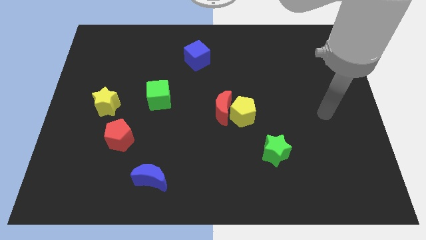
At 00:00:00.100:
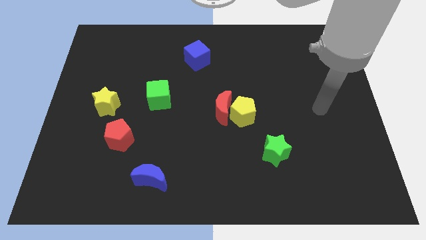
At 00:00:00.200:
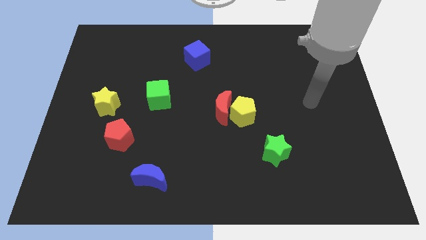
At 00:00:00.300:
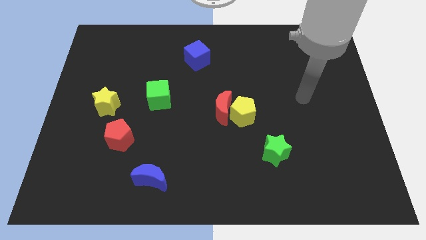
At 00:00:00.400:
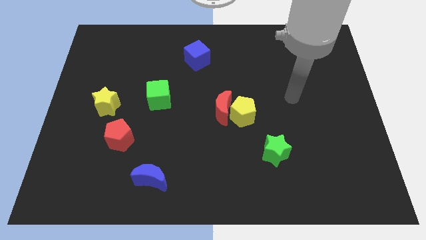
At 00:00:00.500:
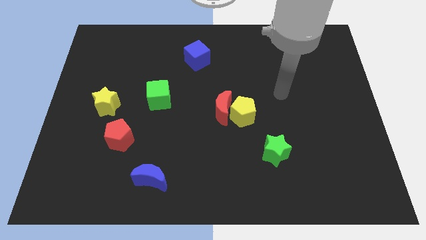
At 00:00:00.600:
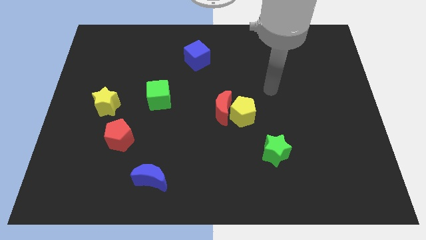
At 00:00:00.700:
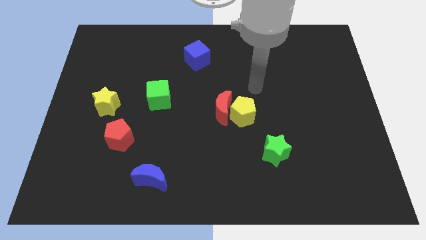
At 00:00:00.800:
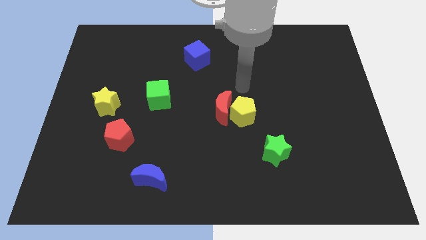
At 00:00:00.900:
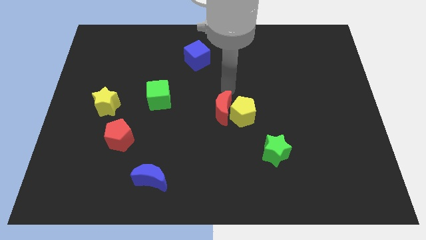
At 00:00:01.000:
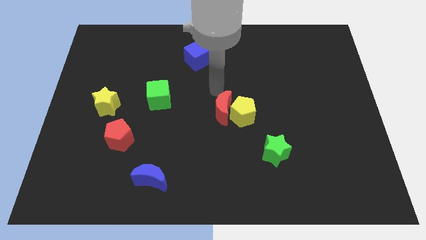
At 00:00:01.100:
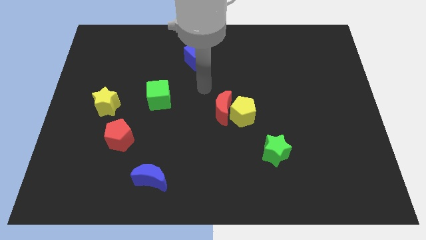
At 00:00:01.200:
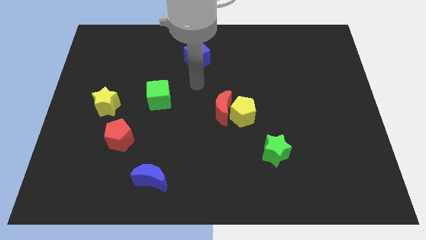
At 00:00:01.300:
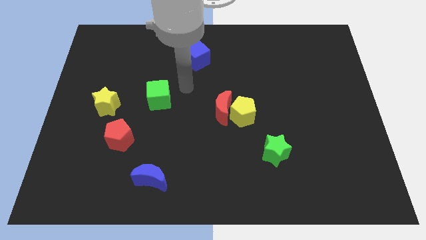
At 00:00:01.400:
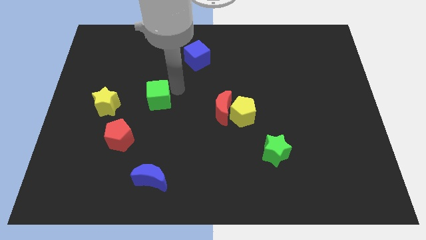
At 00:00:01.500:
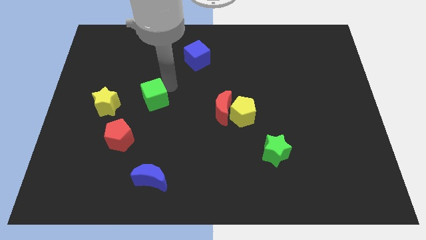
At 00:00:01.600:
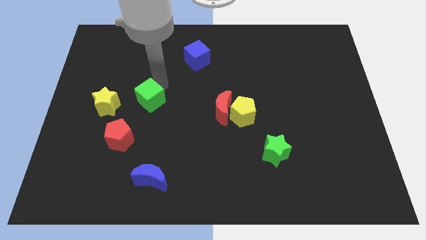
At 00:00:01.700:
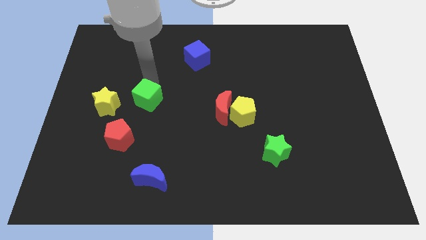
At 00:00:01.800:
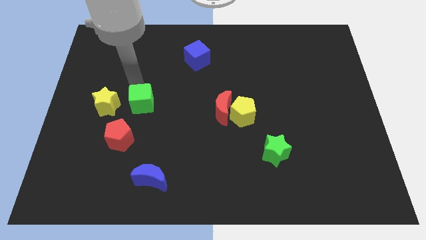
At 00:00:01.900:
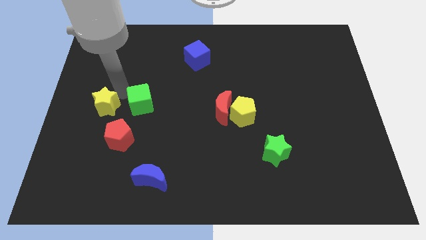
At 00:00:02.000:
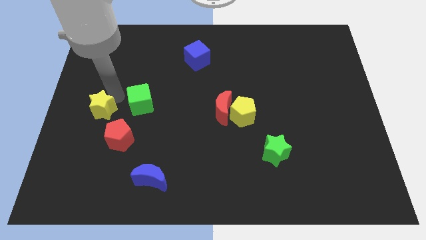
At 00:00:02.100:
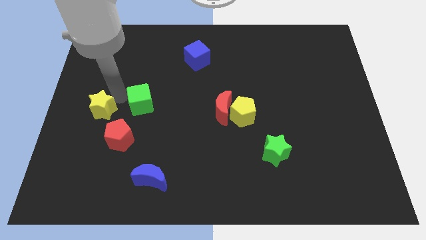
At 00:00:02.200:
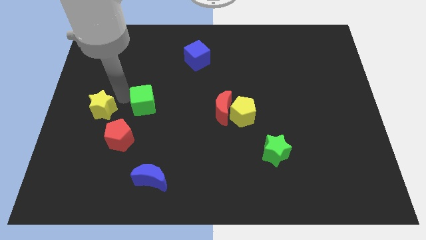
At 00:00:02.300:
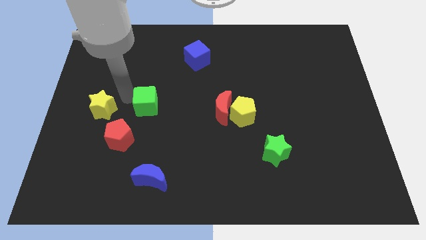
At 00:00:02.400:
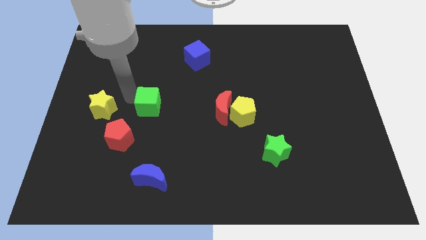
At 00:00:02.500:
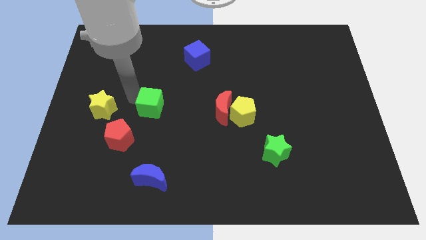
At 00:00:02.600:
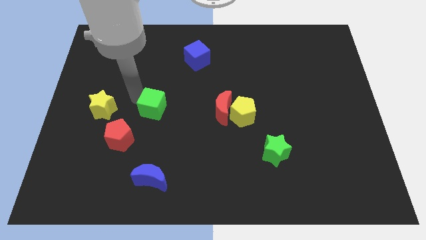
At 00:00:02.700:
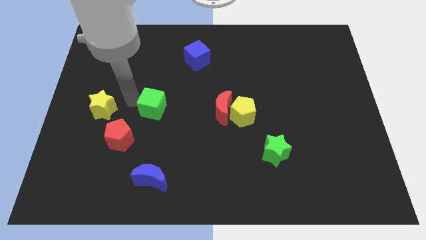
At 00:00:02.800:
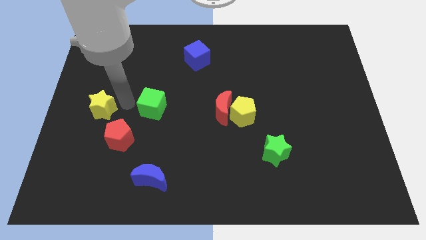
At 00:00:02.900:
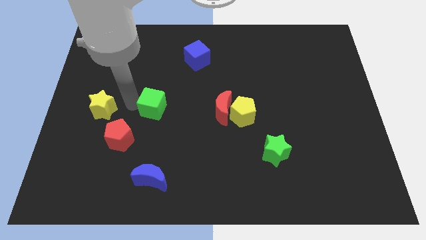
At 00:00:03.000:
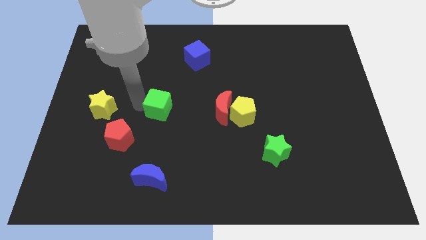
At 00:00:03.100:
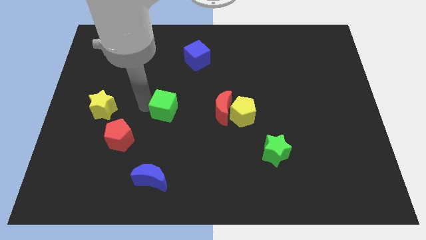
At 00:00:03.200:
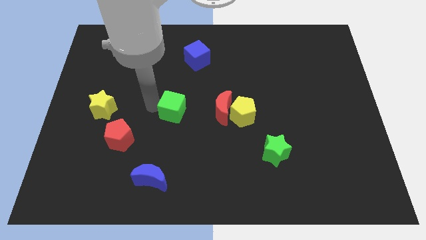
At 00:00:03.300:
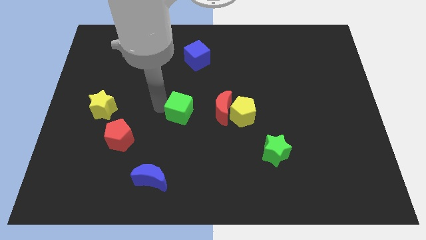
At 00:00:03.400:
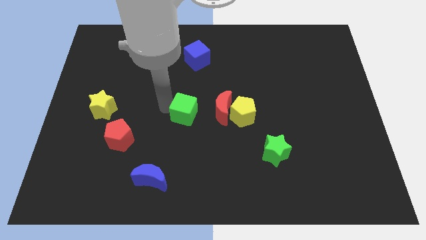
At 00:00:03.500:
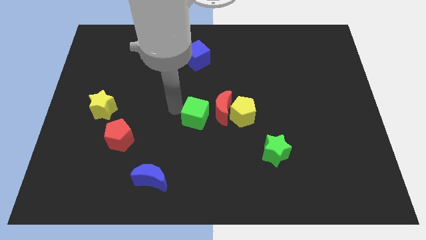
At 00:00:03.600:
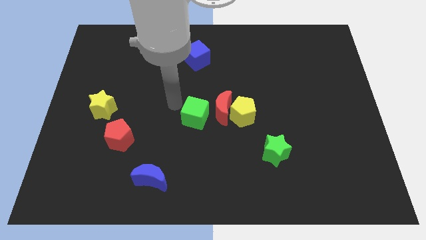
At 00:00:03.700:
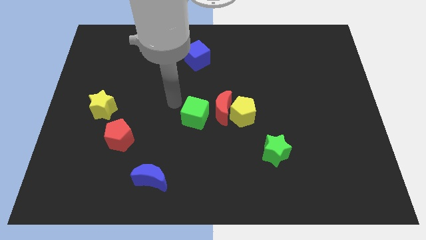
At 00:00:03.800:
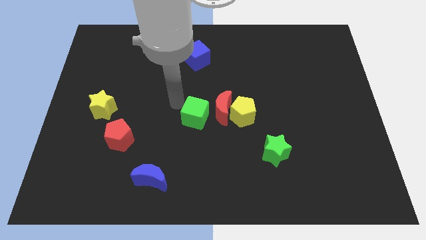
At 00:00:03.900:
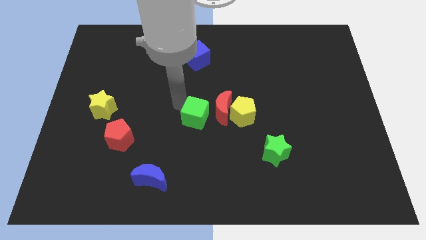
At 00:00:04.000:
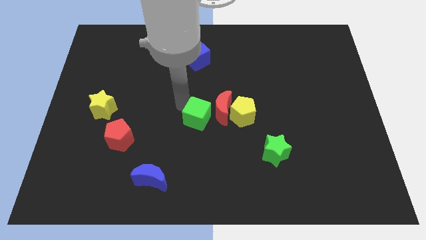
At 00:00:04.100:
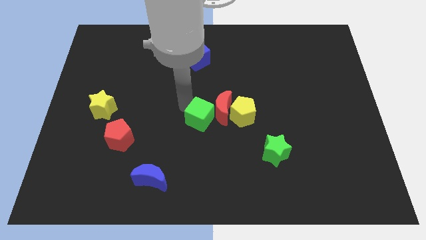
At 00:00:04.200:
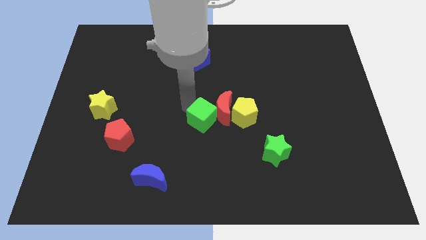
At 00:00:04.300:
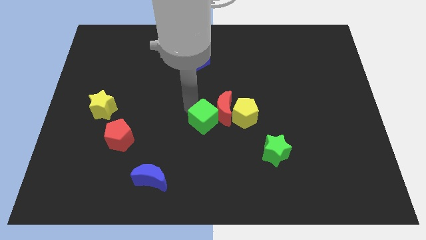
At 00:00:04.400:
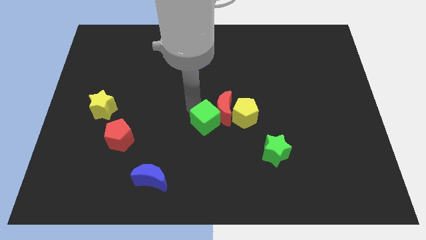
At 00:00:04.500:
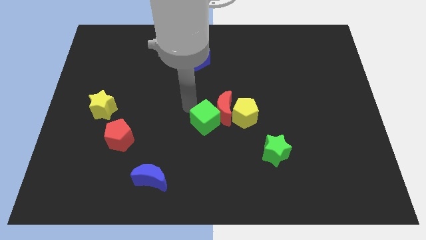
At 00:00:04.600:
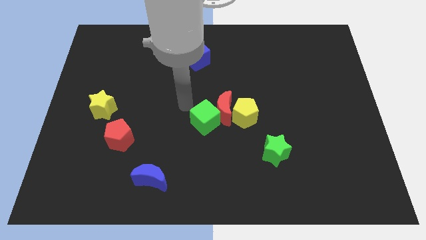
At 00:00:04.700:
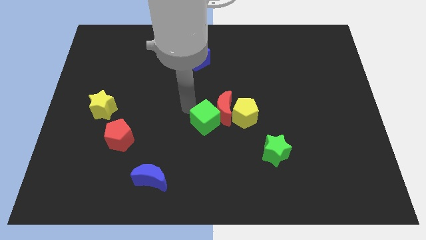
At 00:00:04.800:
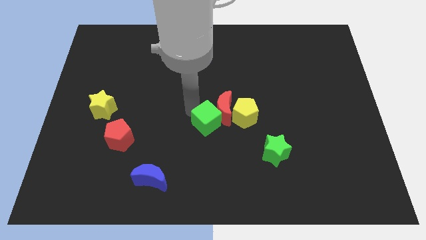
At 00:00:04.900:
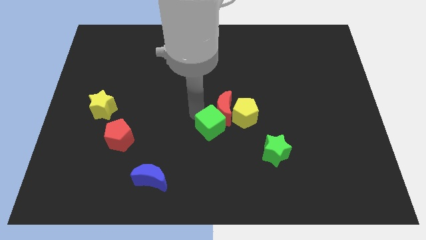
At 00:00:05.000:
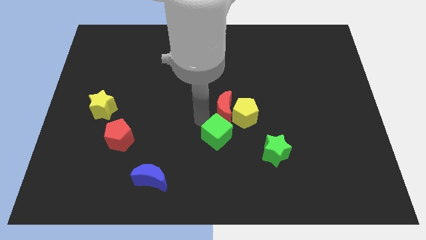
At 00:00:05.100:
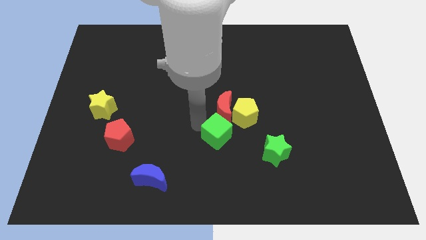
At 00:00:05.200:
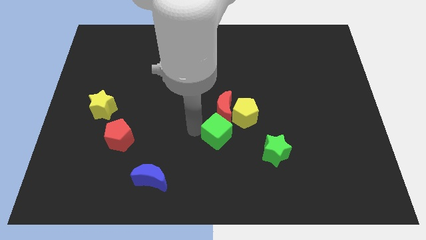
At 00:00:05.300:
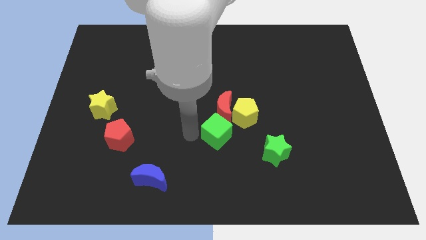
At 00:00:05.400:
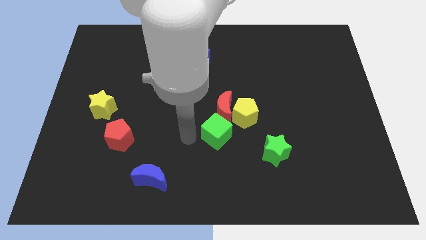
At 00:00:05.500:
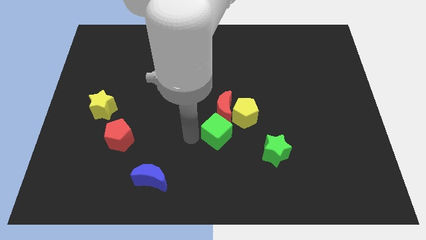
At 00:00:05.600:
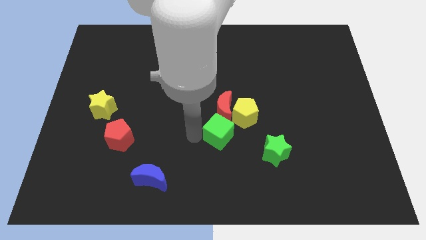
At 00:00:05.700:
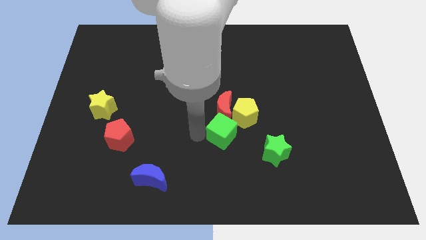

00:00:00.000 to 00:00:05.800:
push the green cube to the bottom right of the red moon

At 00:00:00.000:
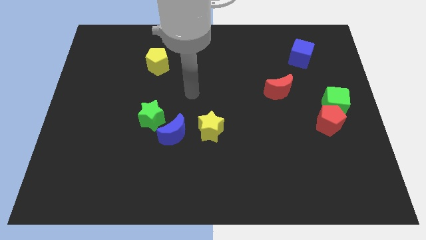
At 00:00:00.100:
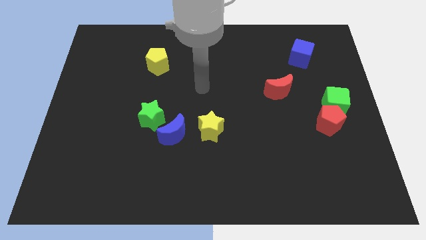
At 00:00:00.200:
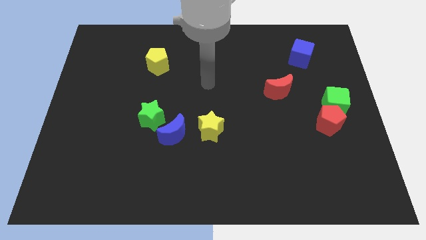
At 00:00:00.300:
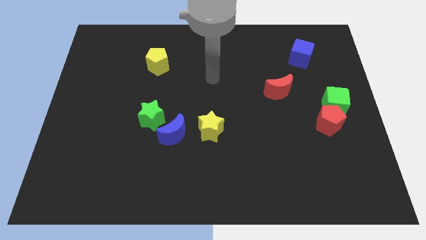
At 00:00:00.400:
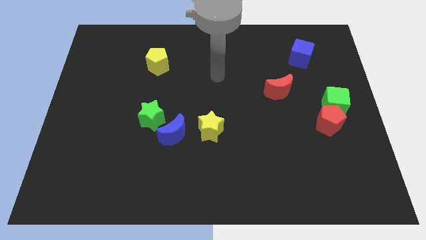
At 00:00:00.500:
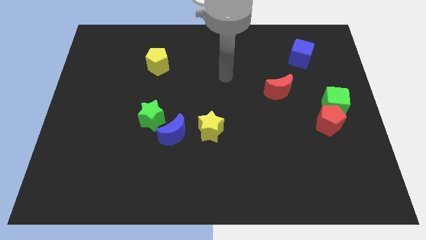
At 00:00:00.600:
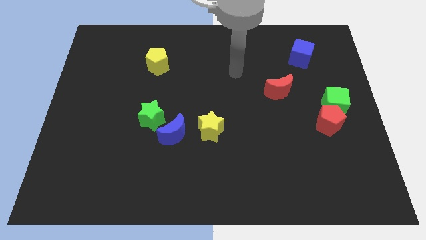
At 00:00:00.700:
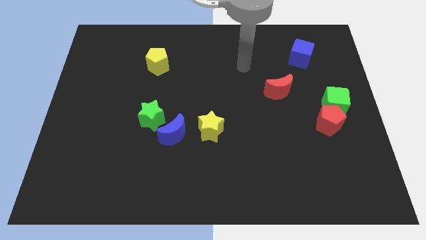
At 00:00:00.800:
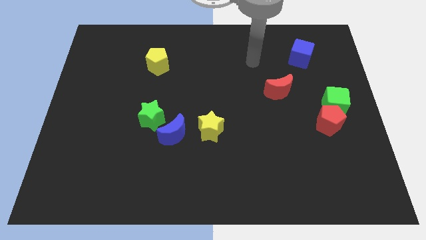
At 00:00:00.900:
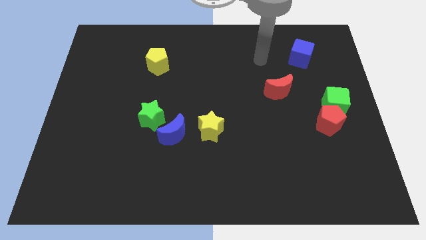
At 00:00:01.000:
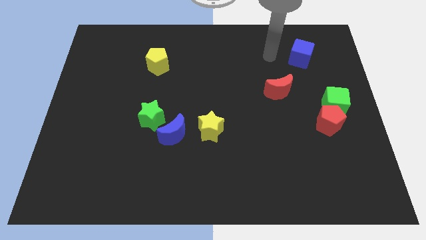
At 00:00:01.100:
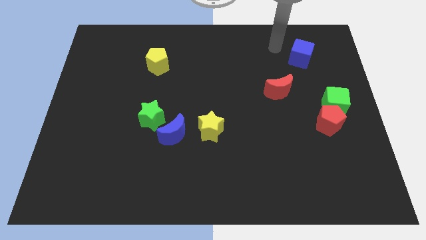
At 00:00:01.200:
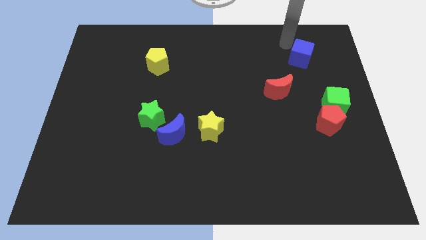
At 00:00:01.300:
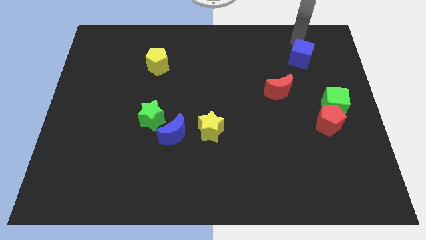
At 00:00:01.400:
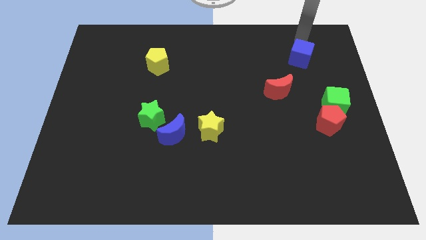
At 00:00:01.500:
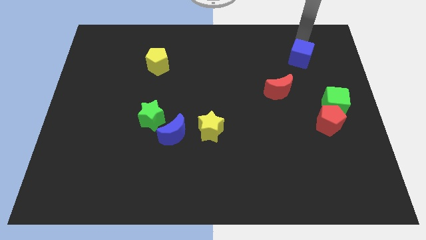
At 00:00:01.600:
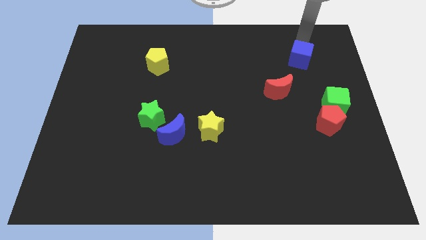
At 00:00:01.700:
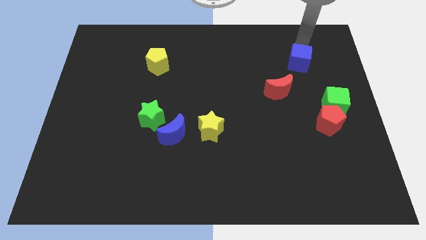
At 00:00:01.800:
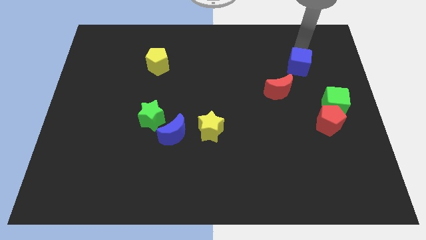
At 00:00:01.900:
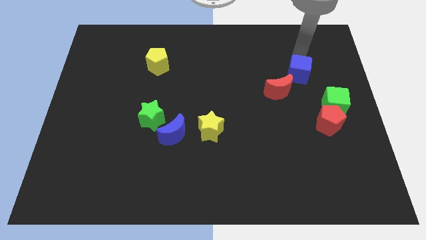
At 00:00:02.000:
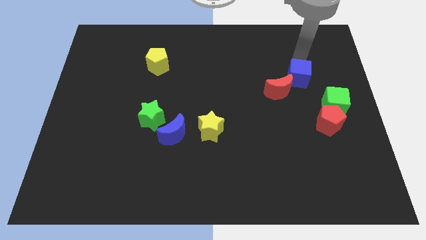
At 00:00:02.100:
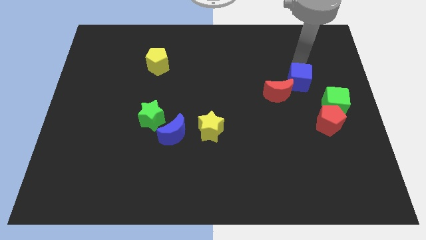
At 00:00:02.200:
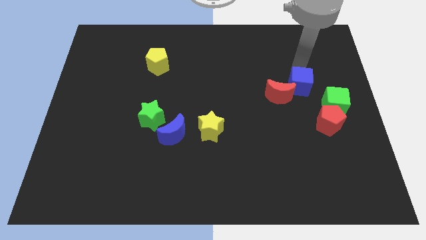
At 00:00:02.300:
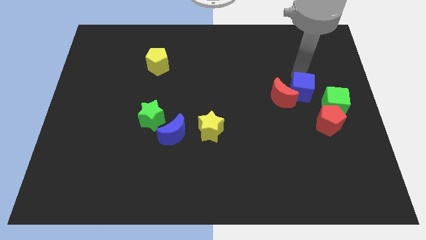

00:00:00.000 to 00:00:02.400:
move the blue cube to the top left side of the red pentagon
